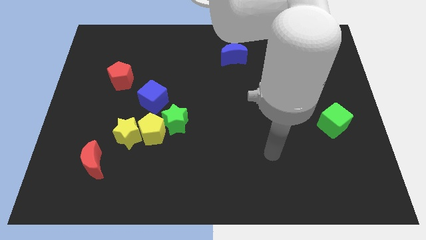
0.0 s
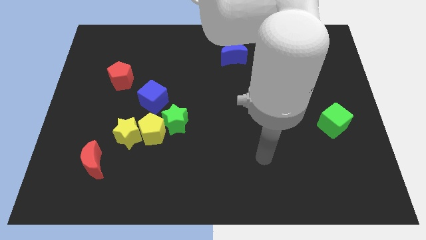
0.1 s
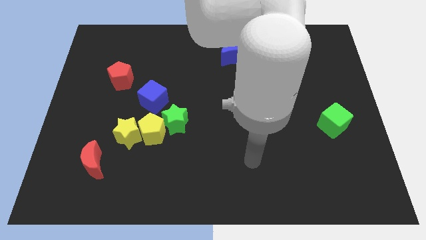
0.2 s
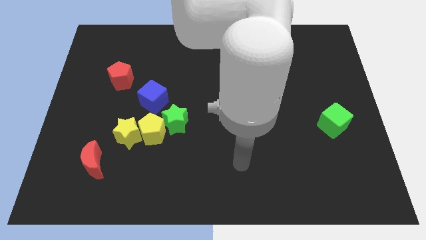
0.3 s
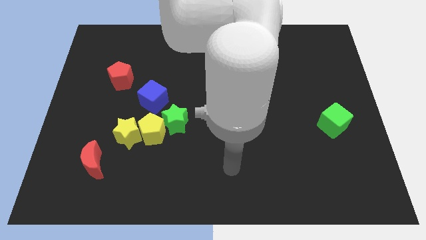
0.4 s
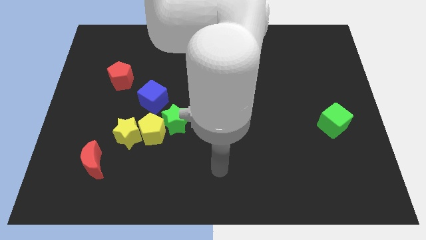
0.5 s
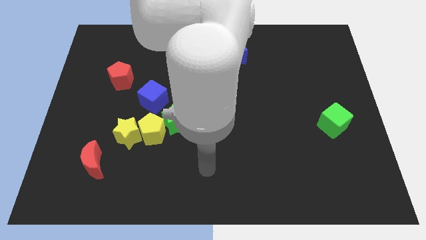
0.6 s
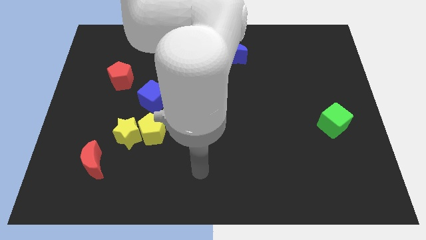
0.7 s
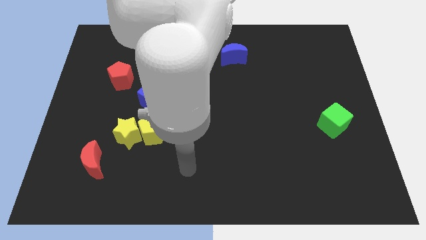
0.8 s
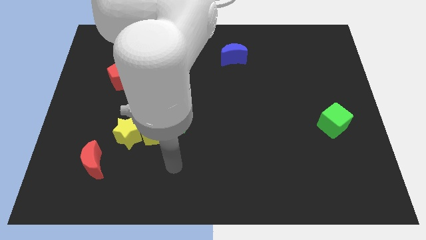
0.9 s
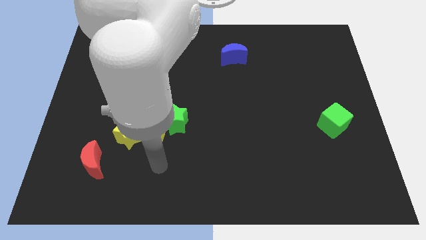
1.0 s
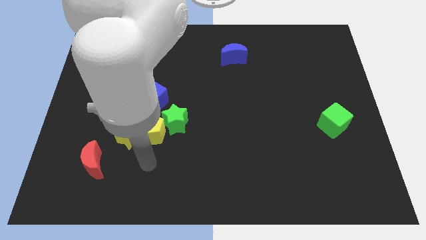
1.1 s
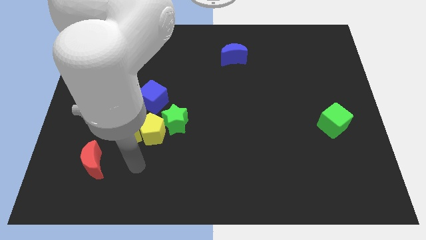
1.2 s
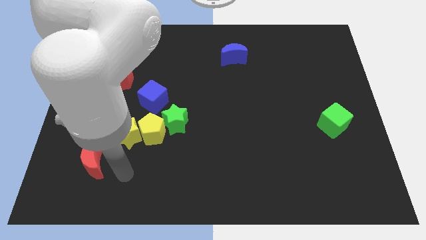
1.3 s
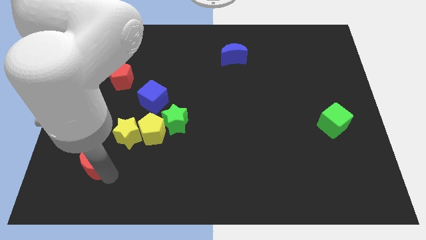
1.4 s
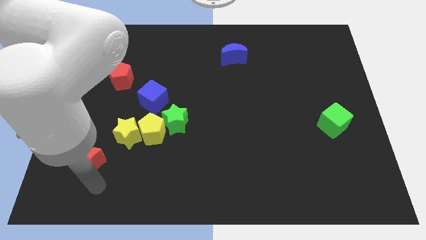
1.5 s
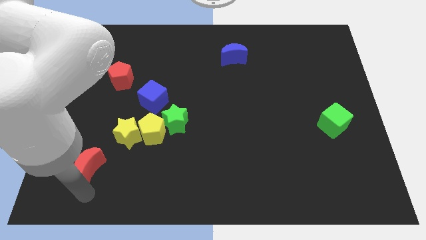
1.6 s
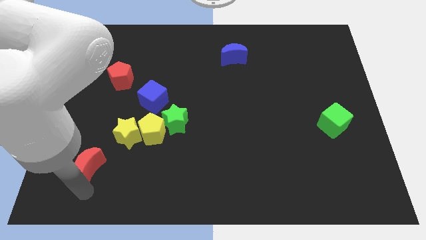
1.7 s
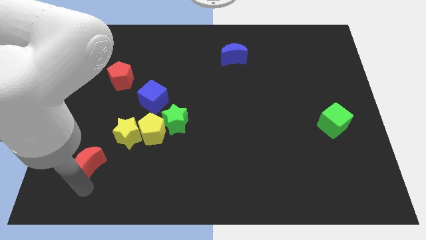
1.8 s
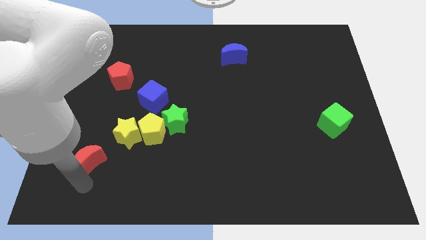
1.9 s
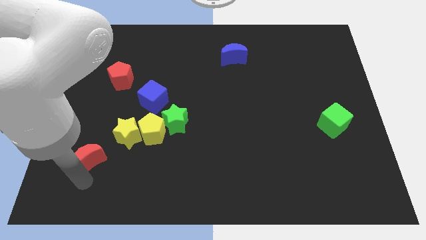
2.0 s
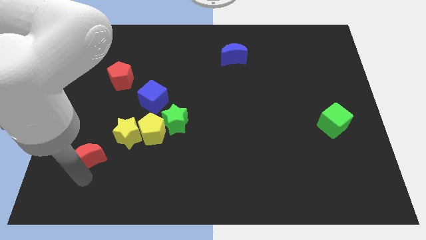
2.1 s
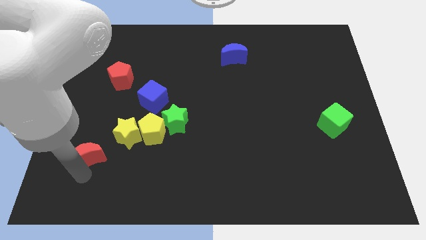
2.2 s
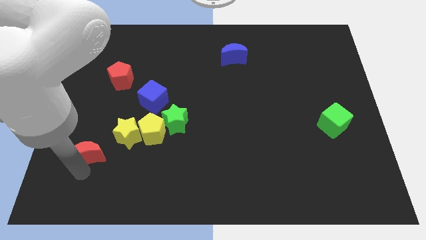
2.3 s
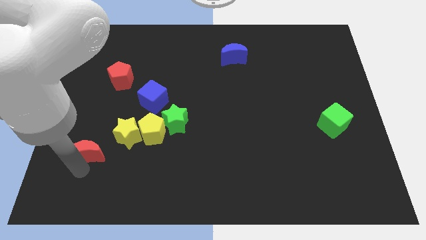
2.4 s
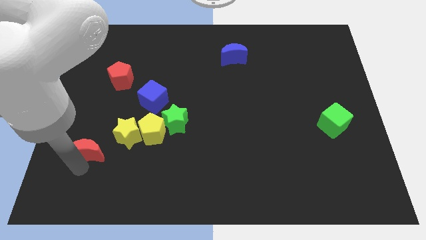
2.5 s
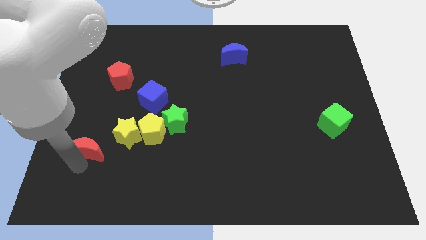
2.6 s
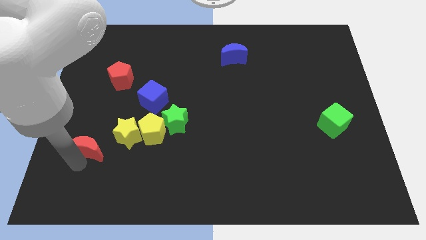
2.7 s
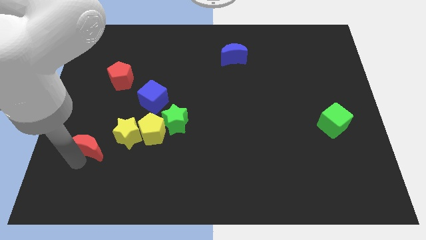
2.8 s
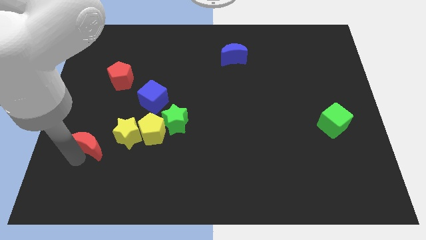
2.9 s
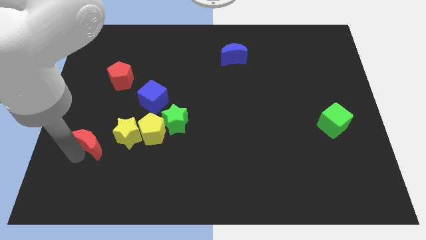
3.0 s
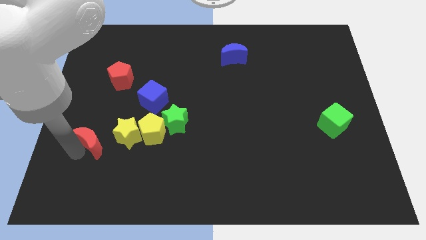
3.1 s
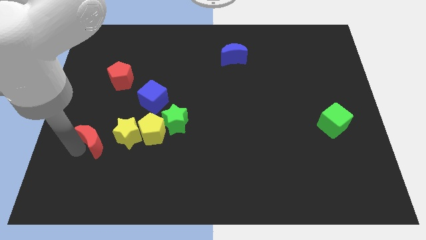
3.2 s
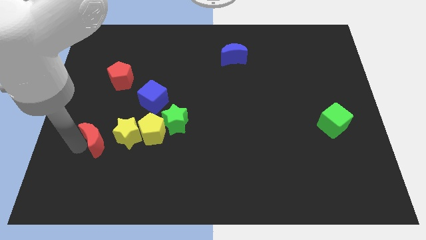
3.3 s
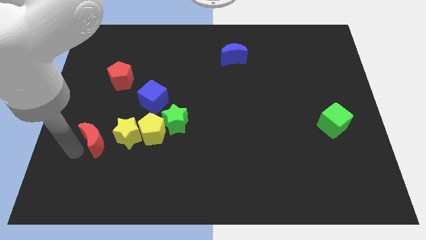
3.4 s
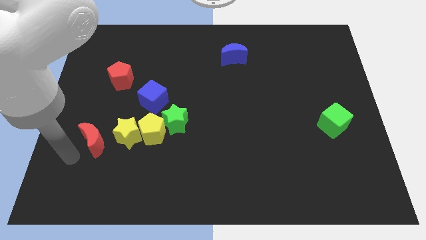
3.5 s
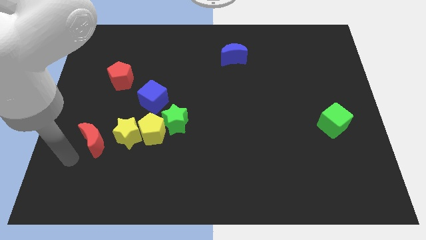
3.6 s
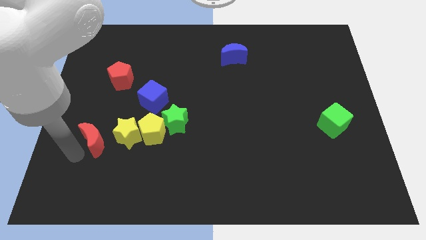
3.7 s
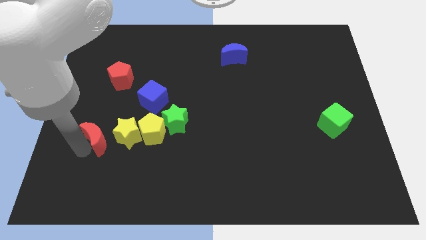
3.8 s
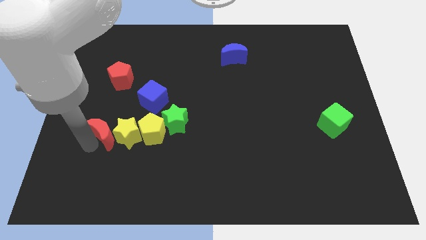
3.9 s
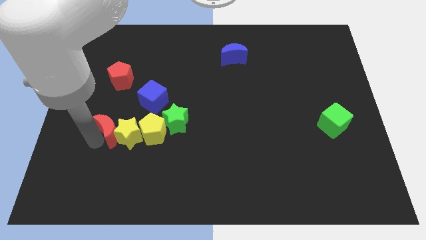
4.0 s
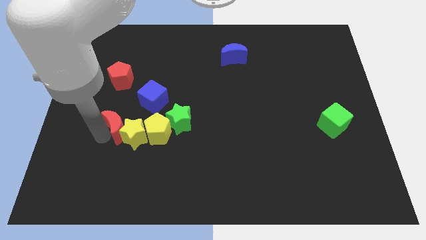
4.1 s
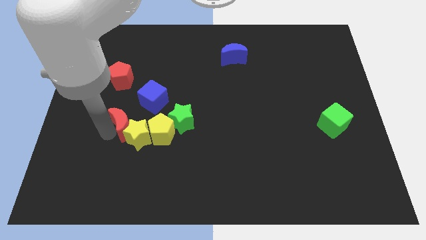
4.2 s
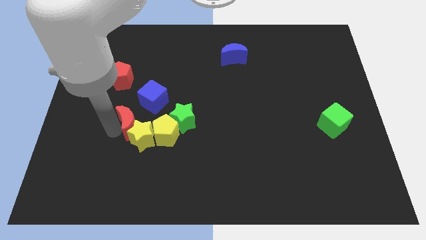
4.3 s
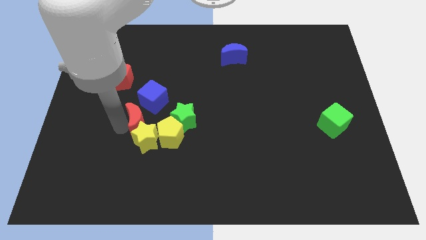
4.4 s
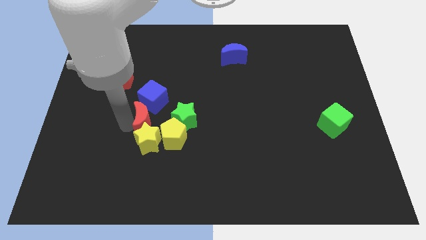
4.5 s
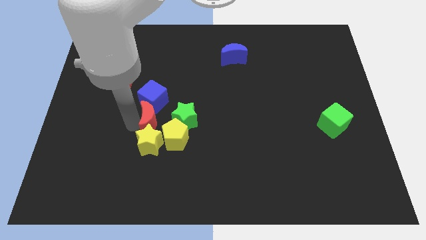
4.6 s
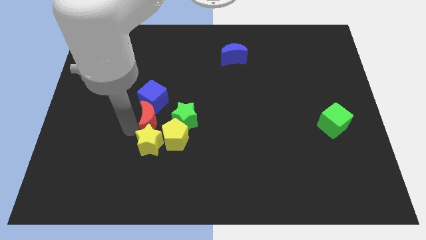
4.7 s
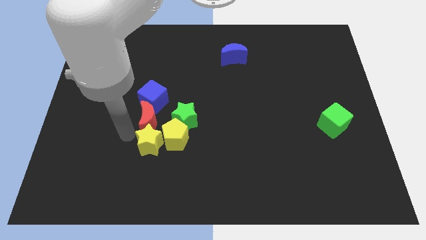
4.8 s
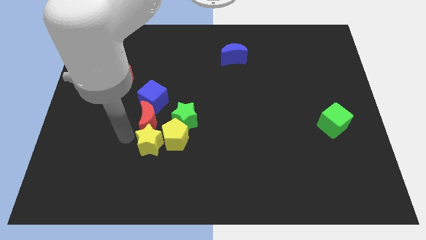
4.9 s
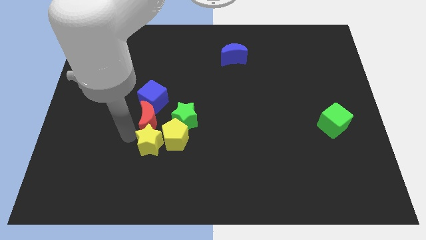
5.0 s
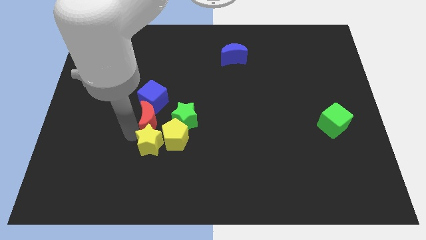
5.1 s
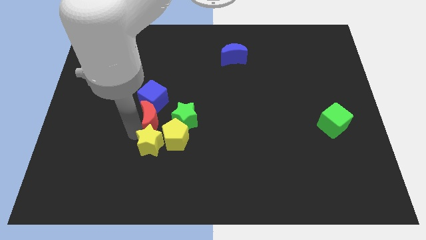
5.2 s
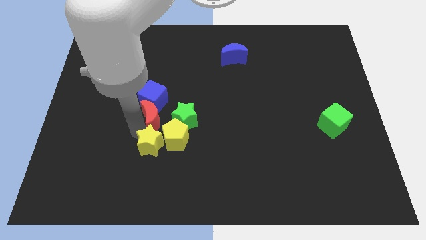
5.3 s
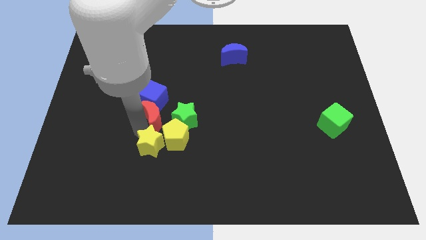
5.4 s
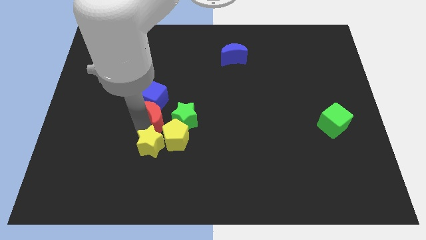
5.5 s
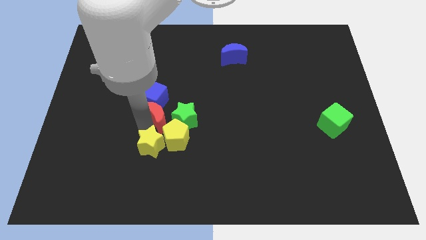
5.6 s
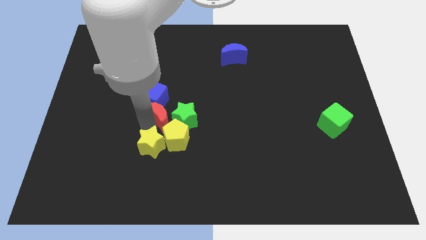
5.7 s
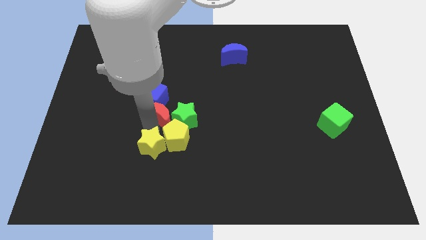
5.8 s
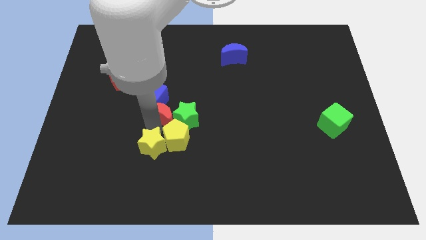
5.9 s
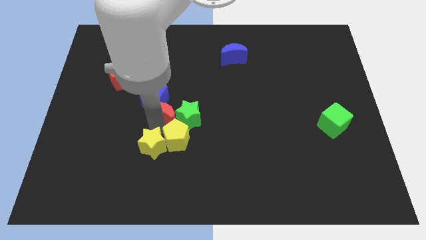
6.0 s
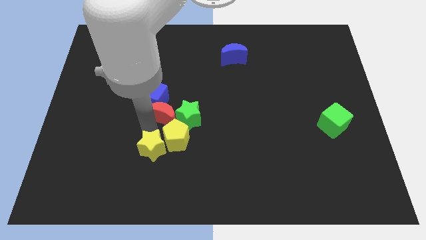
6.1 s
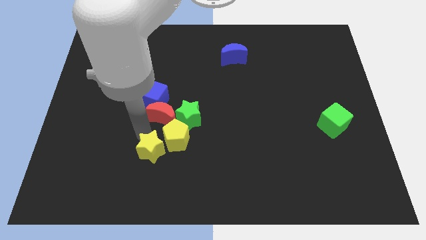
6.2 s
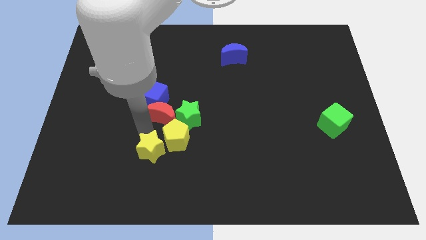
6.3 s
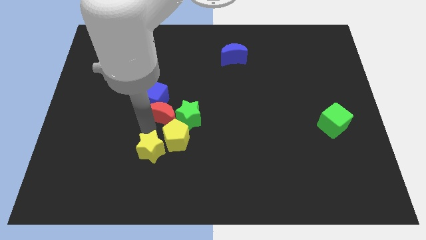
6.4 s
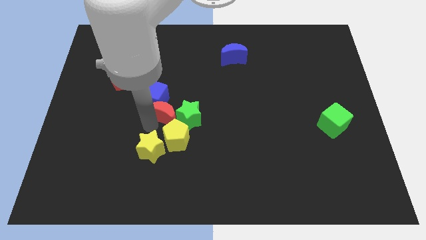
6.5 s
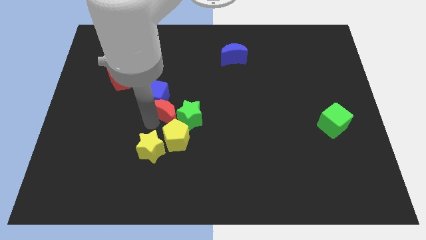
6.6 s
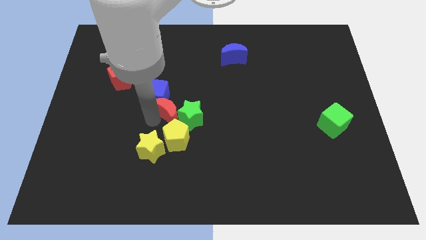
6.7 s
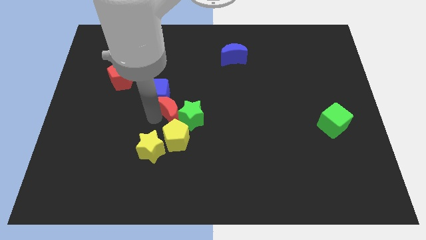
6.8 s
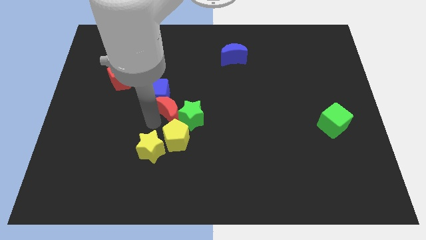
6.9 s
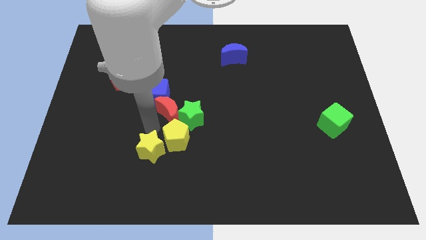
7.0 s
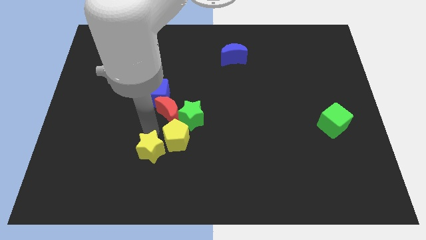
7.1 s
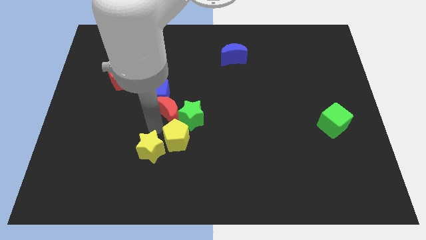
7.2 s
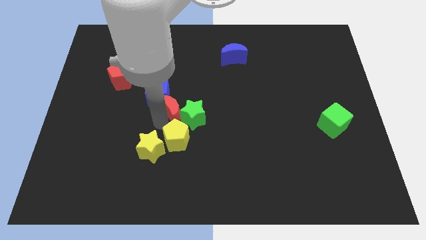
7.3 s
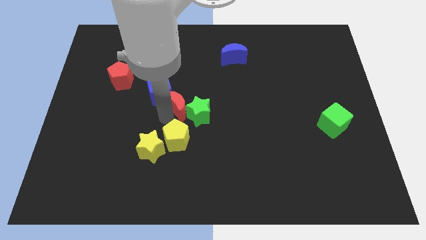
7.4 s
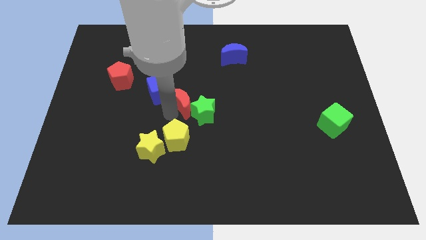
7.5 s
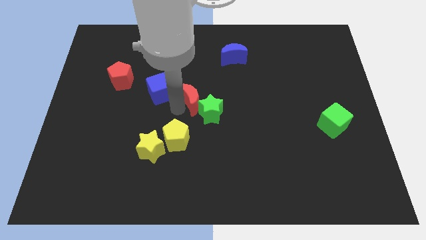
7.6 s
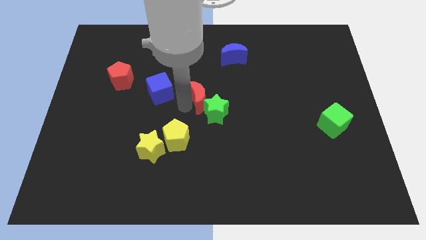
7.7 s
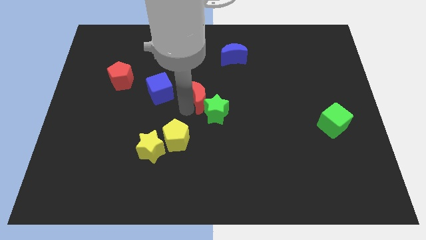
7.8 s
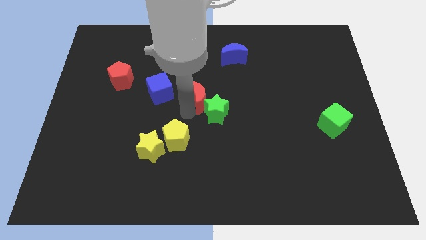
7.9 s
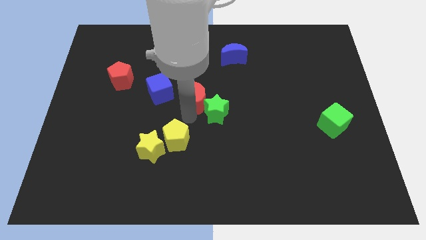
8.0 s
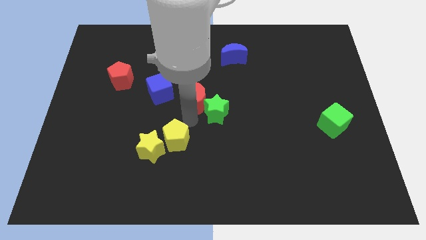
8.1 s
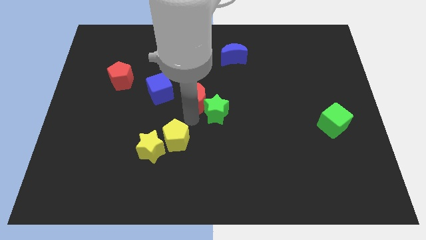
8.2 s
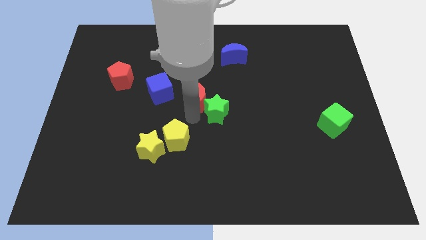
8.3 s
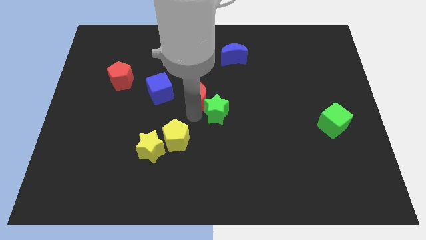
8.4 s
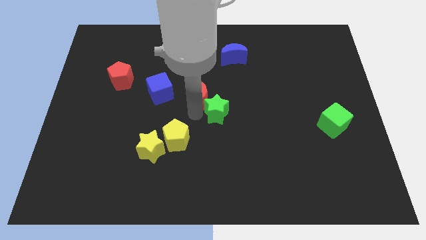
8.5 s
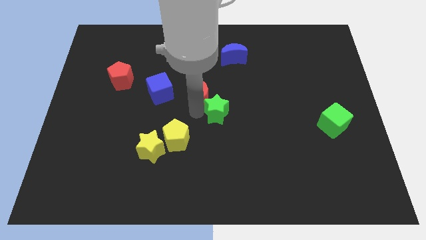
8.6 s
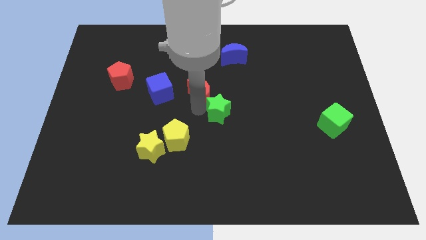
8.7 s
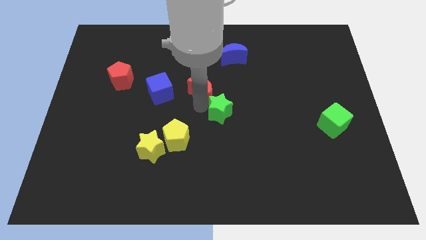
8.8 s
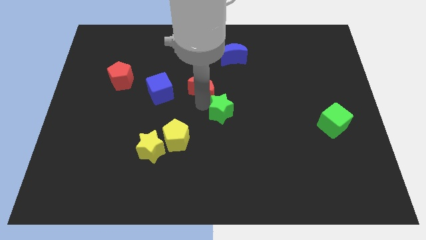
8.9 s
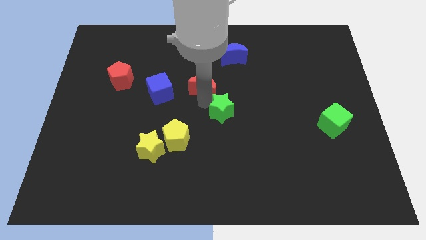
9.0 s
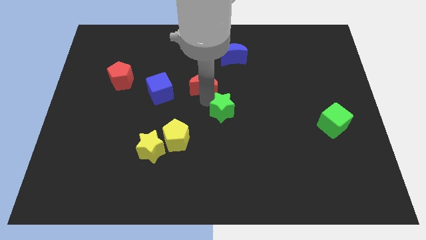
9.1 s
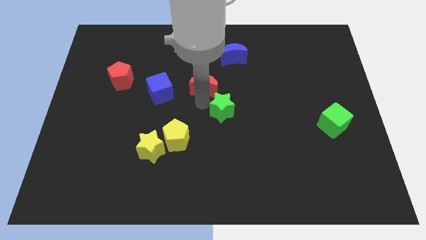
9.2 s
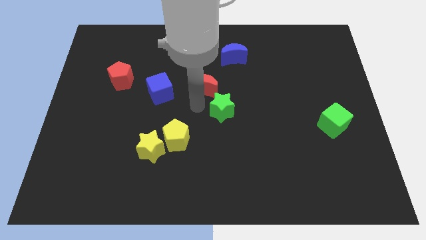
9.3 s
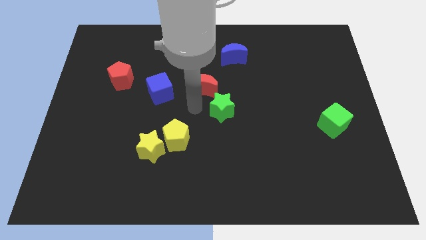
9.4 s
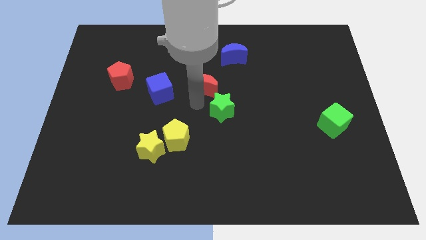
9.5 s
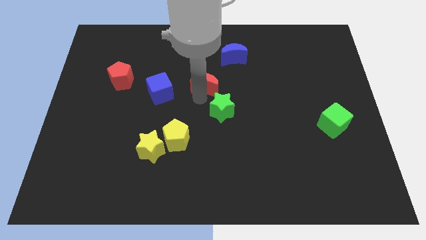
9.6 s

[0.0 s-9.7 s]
move the red moon diagonally down and to the left of the blue moon
